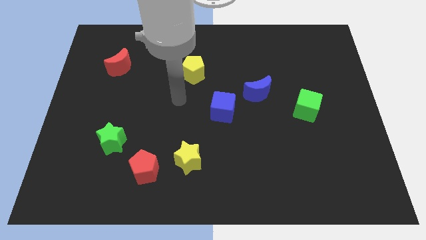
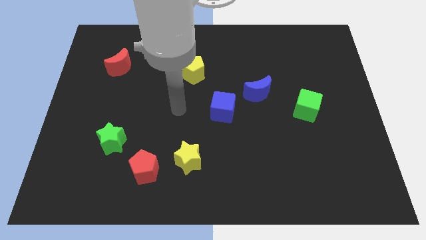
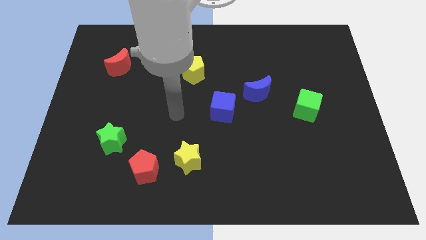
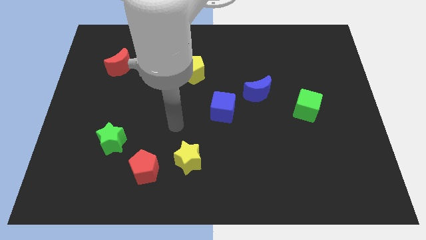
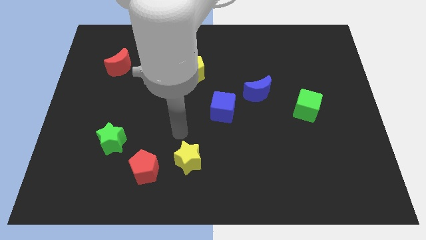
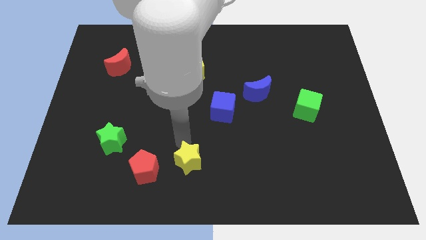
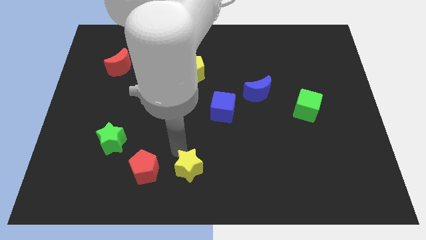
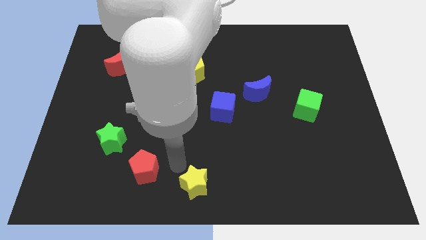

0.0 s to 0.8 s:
separate the red pentagon from the yellow star

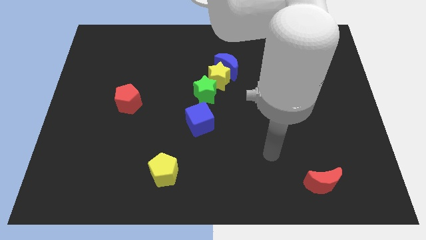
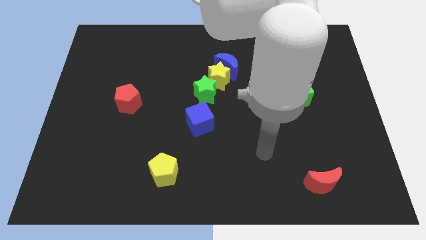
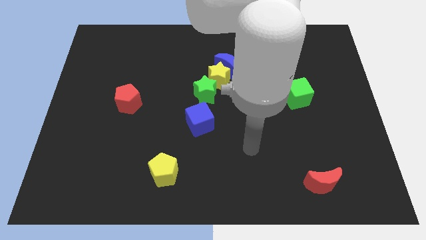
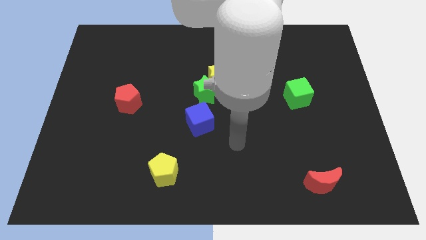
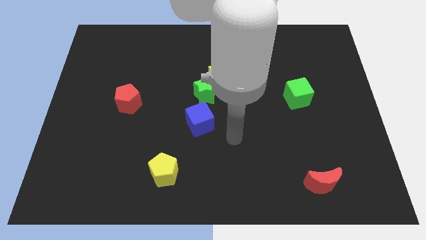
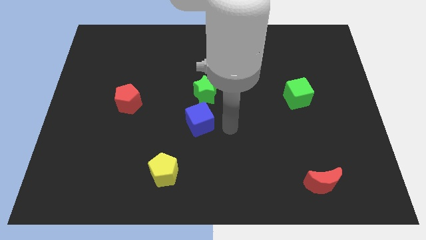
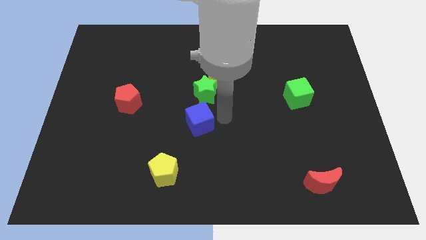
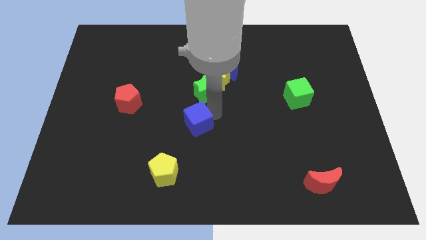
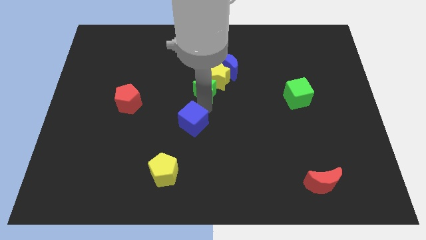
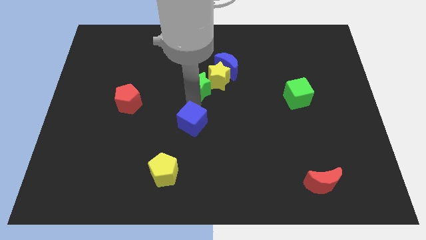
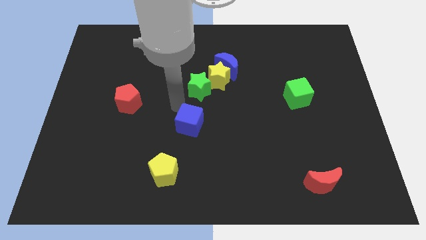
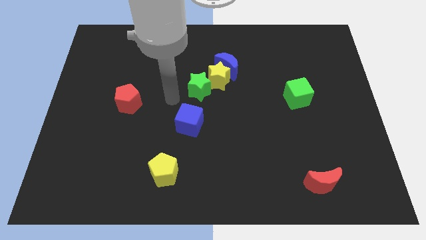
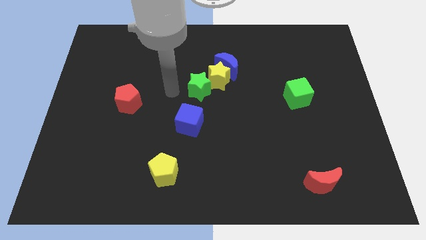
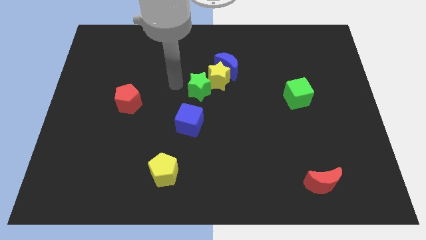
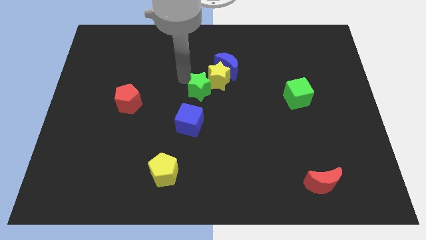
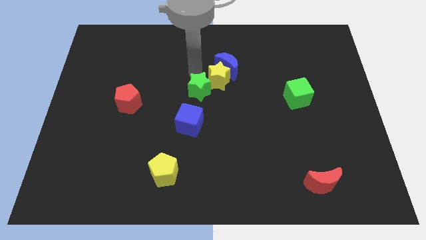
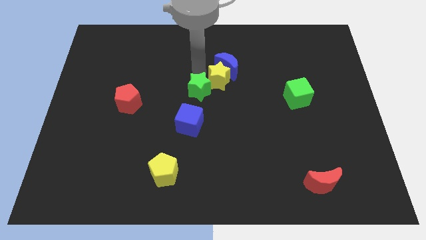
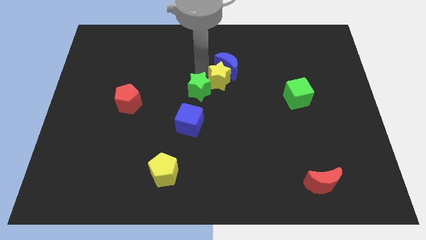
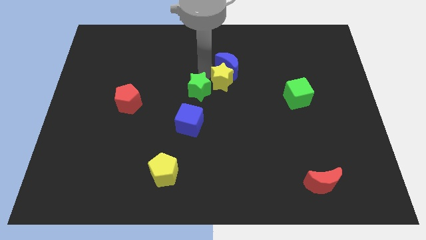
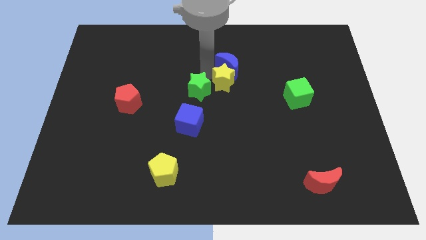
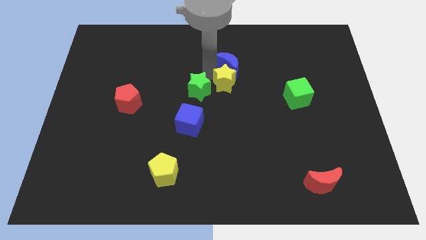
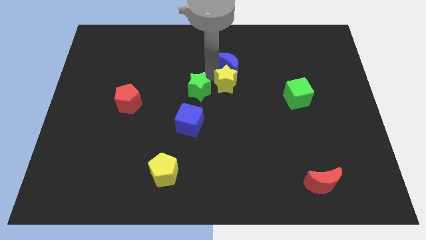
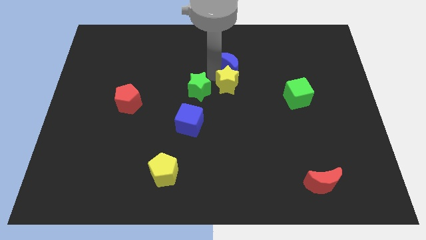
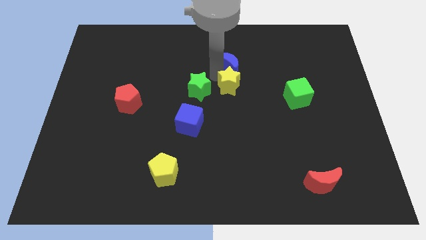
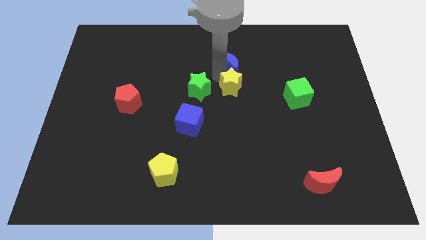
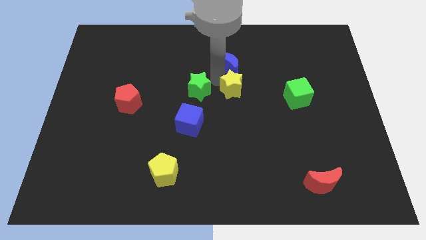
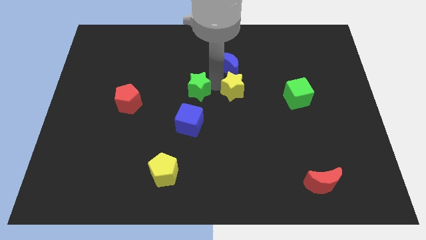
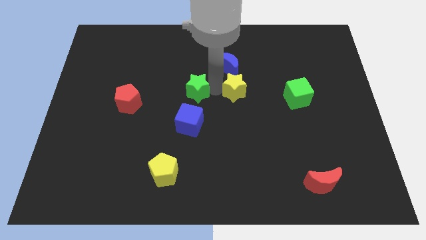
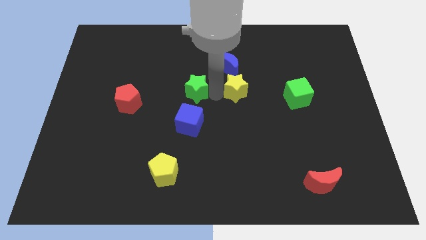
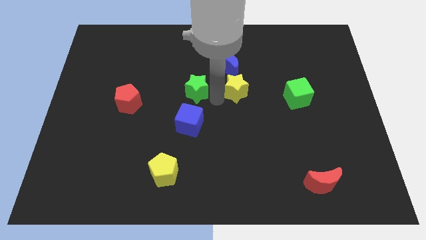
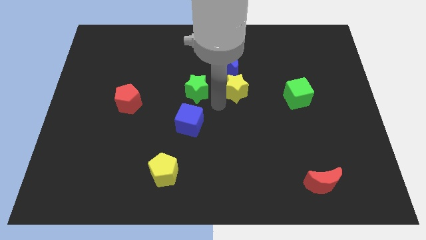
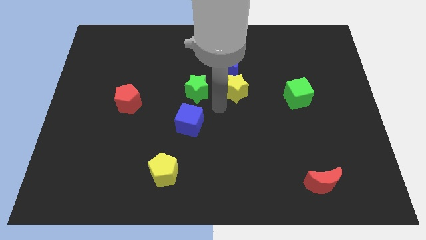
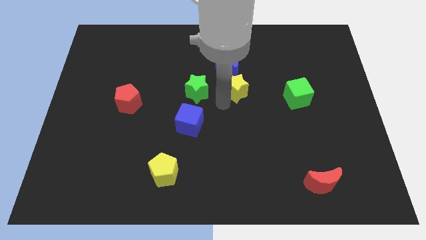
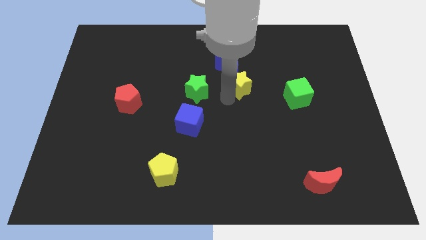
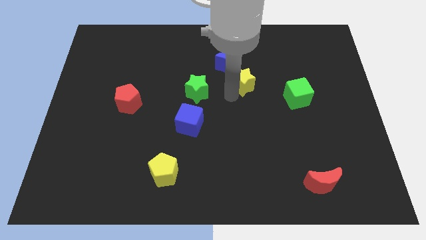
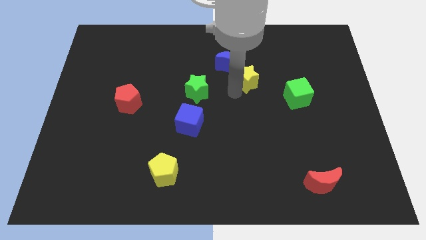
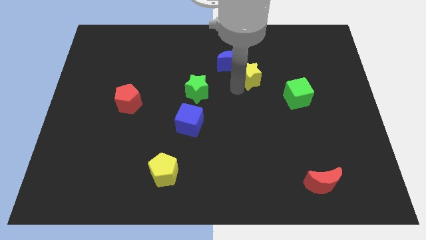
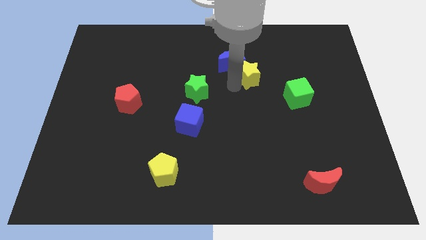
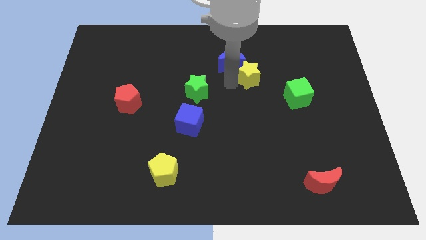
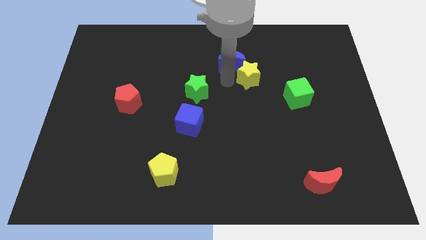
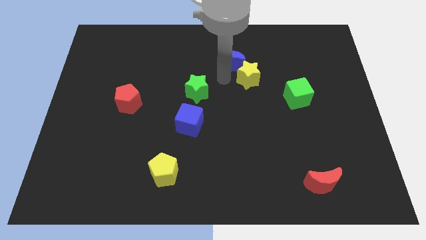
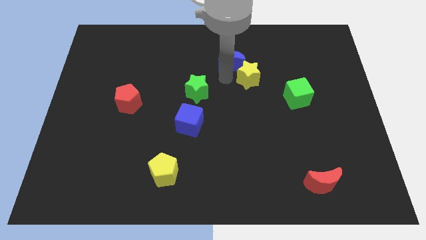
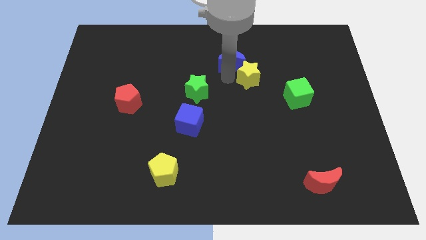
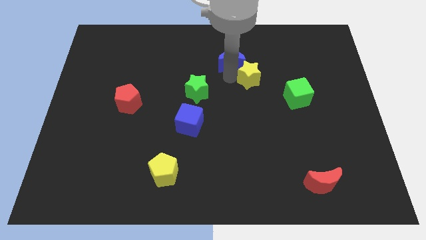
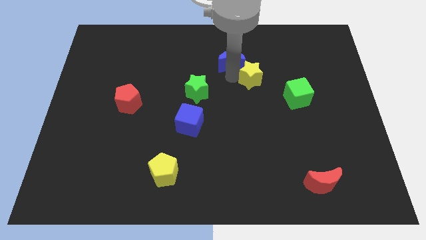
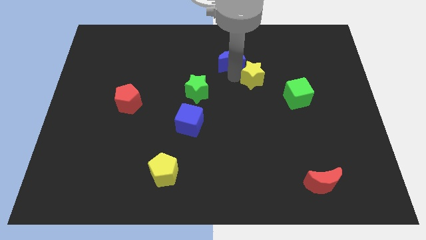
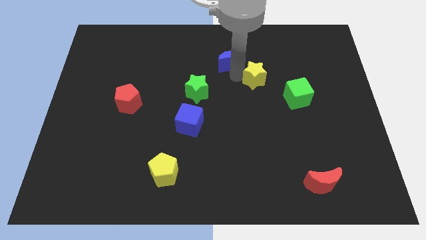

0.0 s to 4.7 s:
separate the yellow star from the blue moon and green star

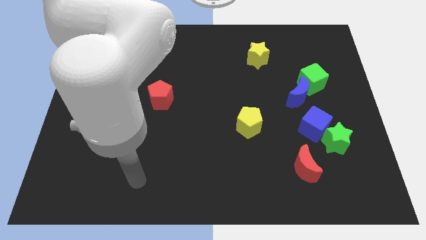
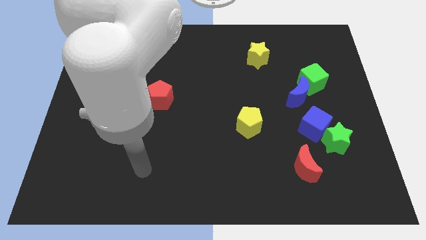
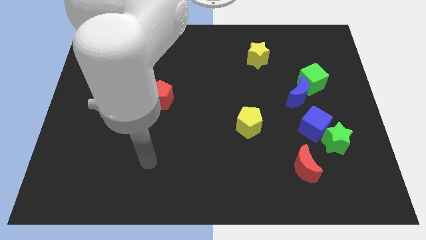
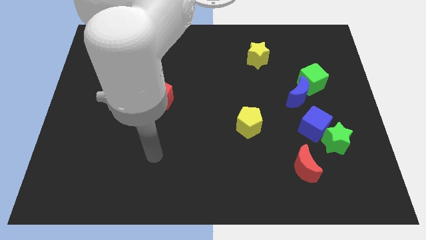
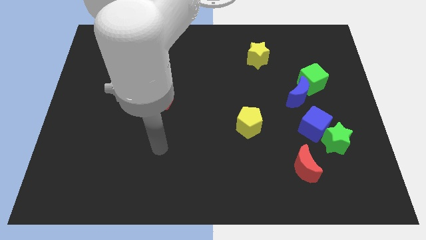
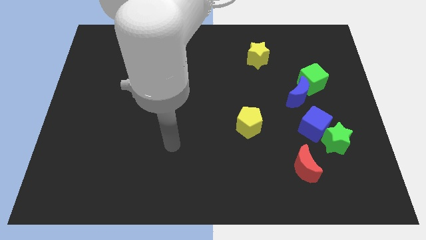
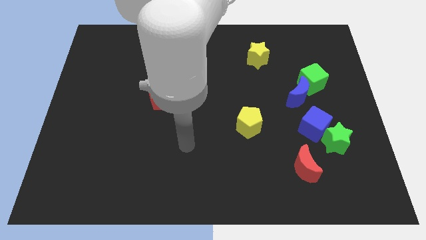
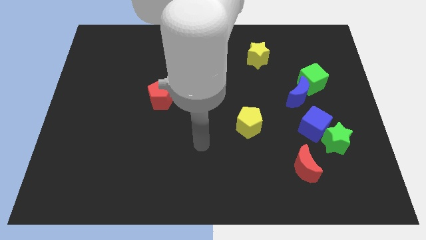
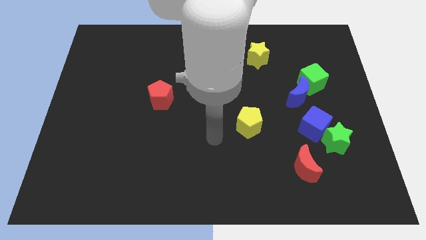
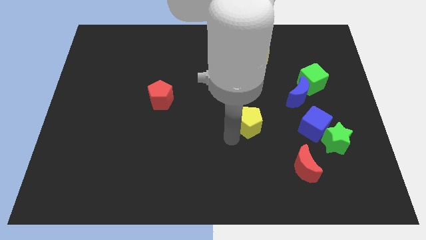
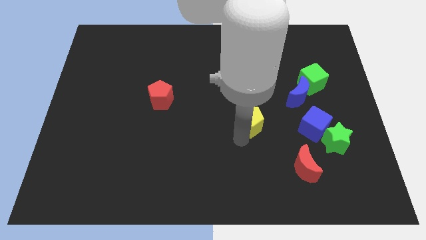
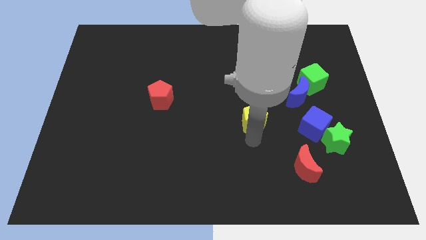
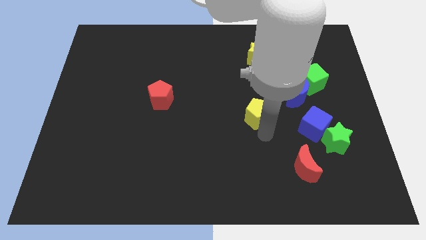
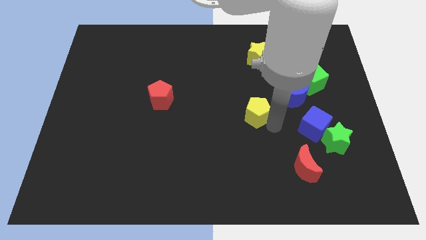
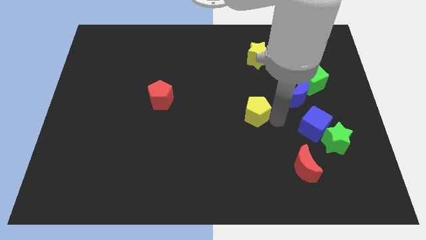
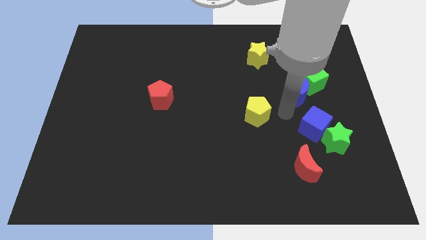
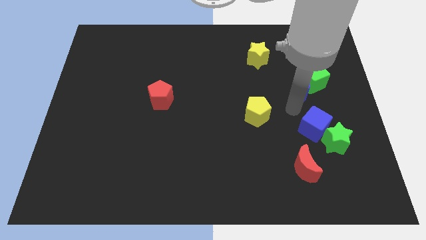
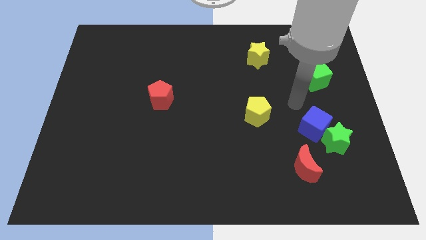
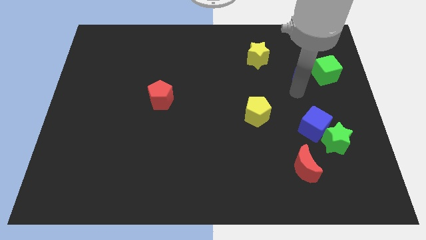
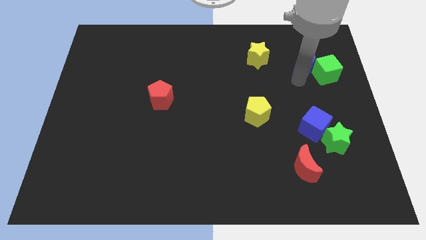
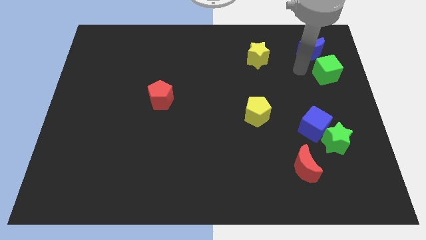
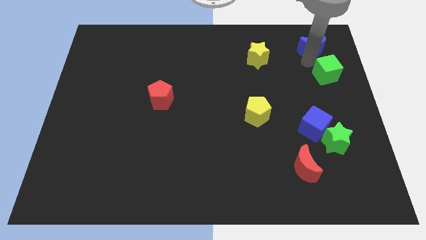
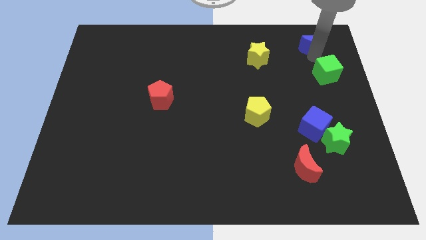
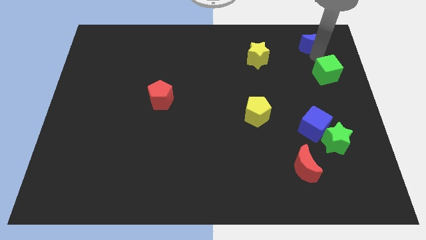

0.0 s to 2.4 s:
pull the green cube apart from the blue moon

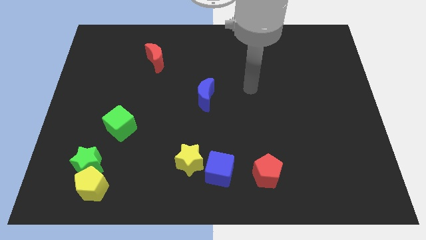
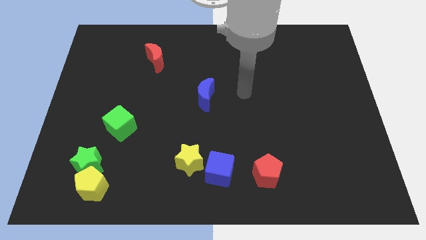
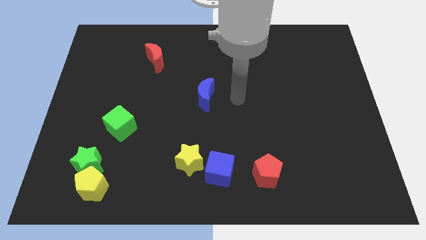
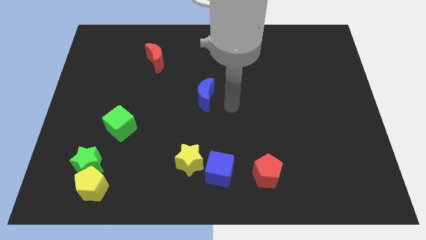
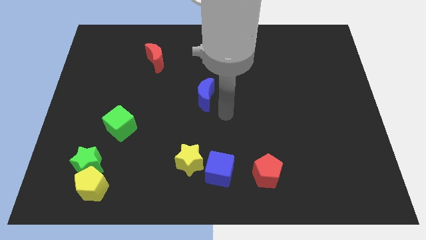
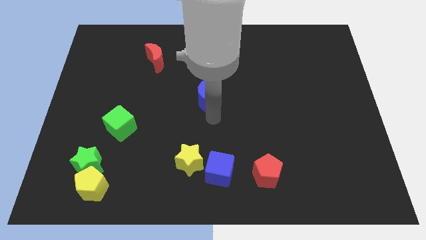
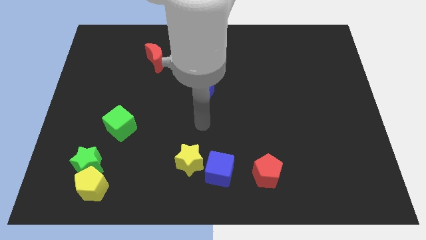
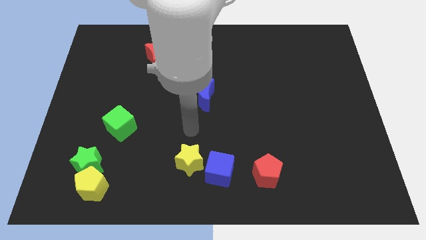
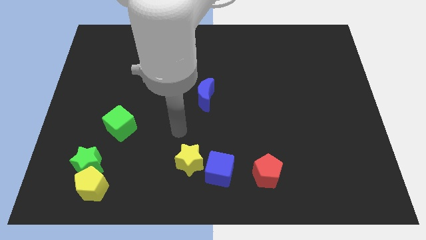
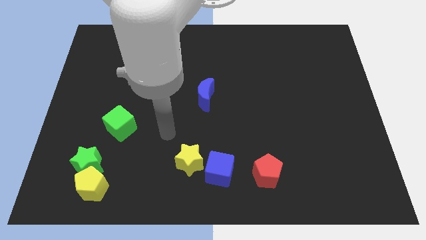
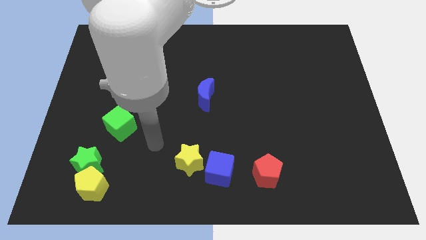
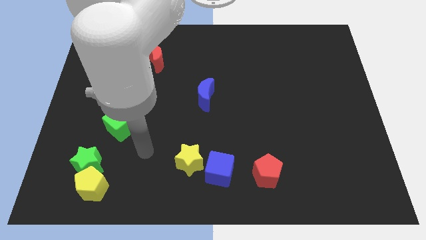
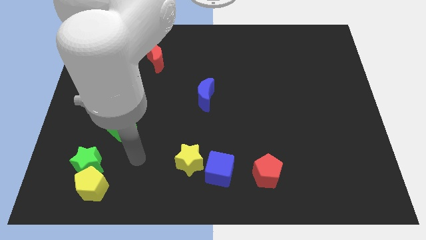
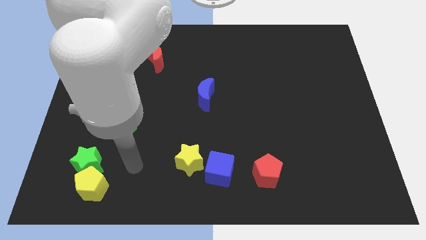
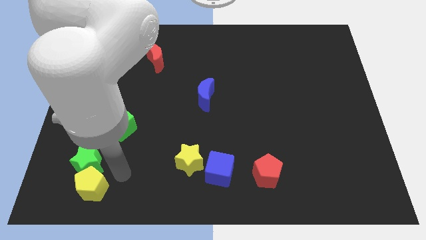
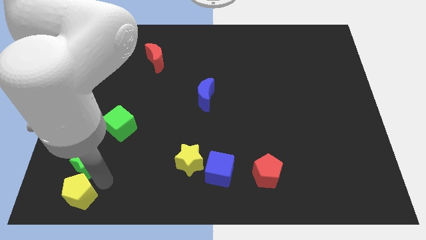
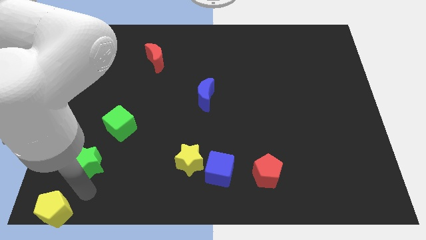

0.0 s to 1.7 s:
separate the green star from the yellow pentagon
